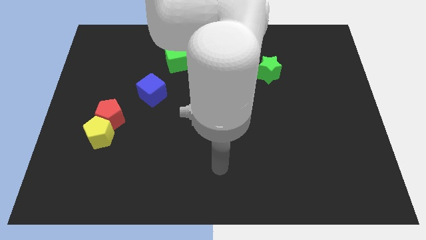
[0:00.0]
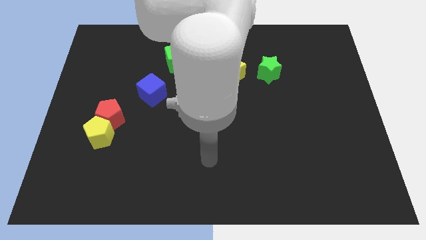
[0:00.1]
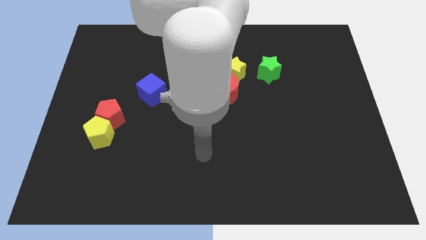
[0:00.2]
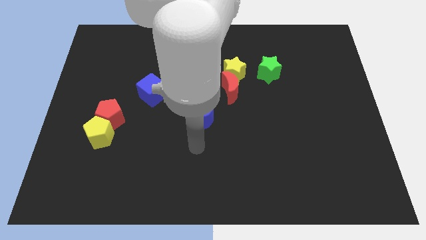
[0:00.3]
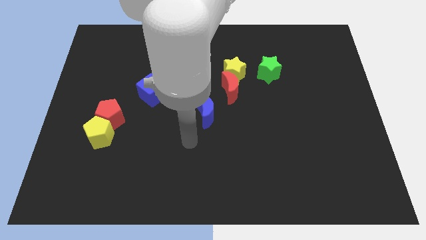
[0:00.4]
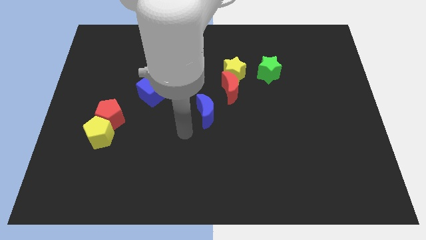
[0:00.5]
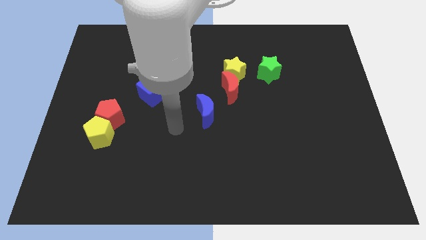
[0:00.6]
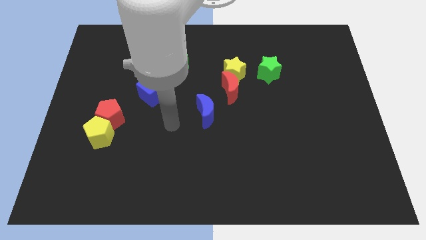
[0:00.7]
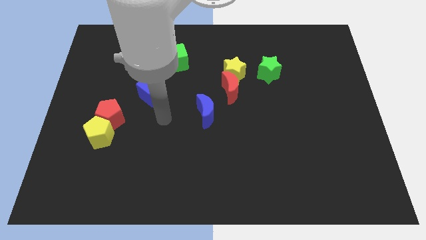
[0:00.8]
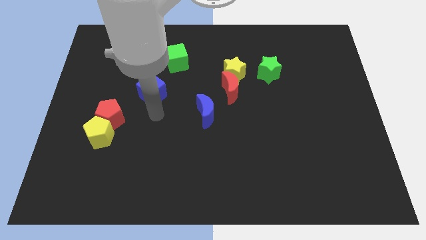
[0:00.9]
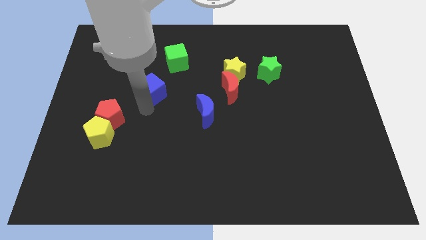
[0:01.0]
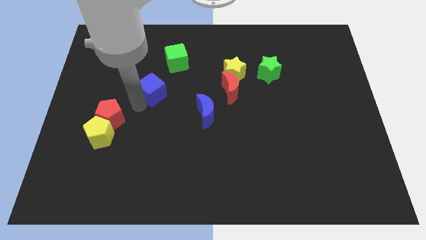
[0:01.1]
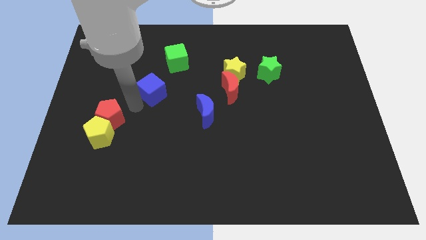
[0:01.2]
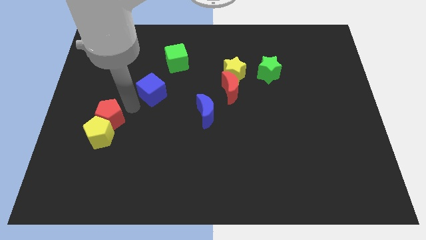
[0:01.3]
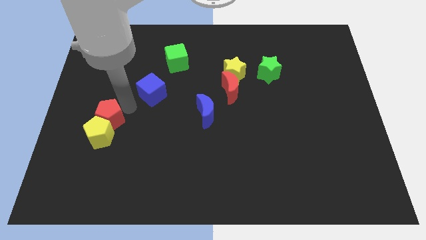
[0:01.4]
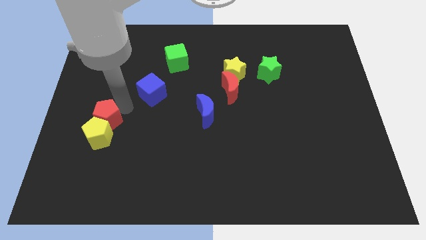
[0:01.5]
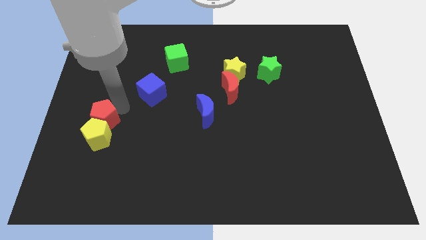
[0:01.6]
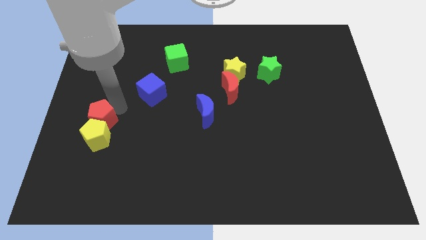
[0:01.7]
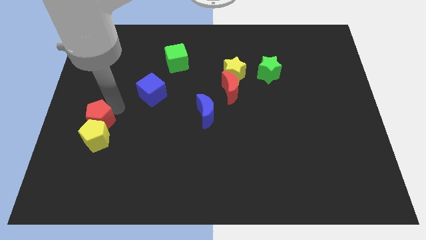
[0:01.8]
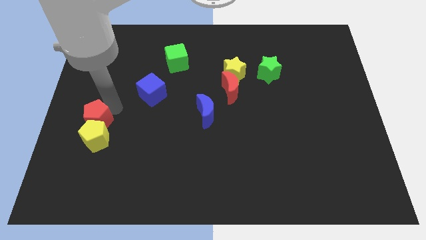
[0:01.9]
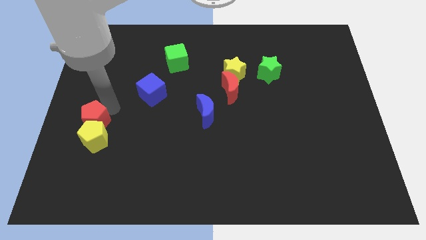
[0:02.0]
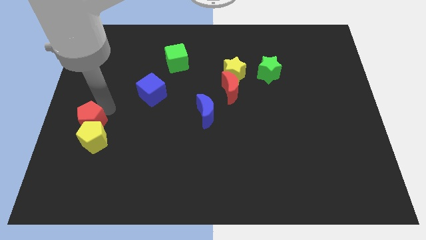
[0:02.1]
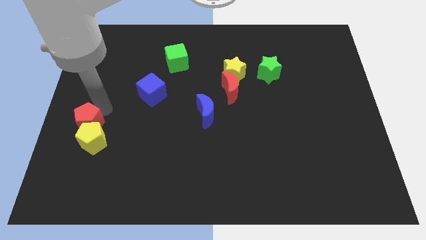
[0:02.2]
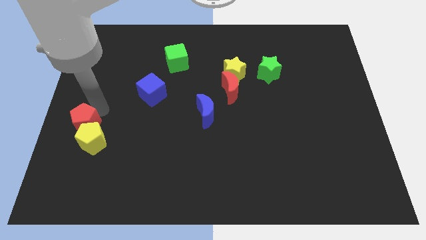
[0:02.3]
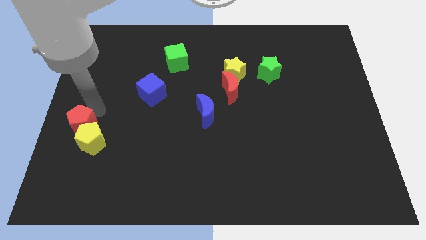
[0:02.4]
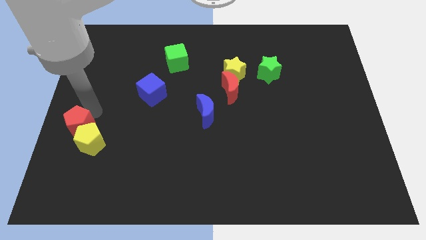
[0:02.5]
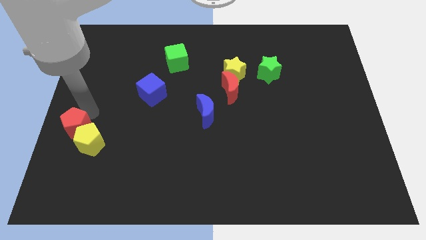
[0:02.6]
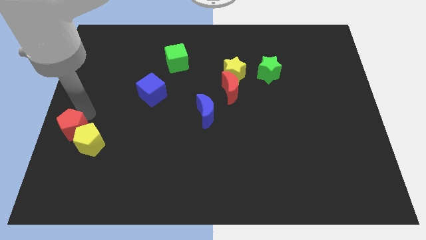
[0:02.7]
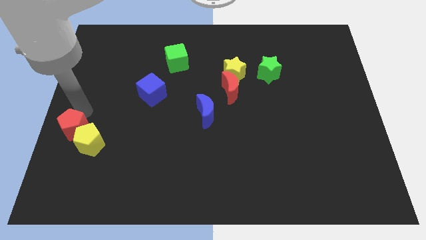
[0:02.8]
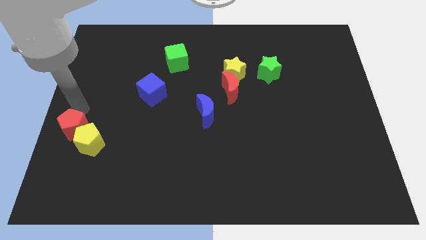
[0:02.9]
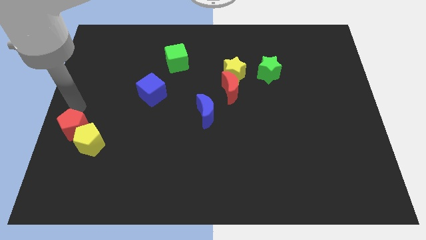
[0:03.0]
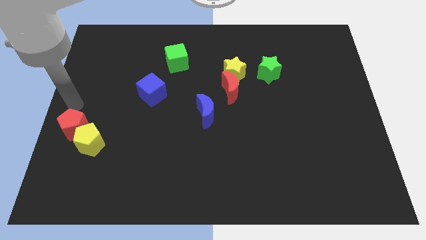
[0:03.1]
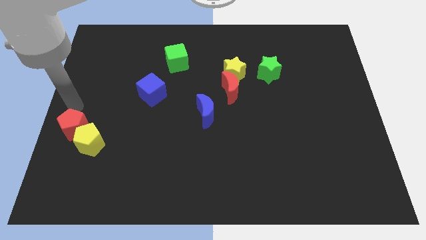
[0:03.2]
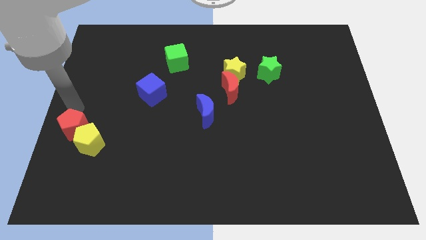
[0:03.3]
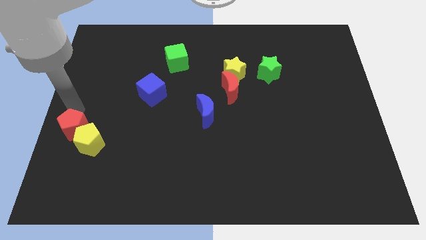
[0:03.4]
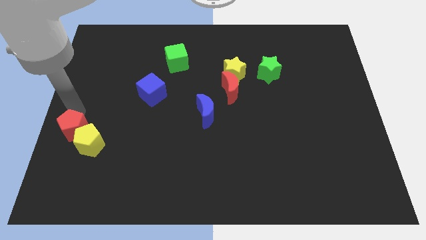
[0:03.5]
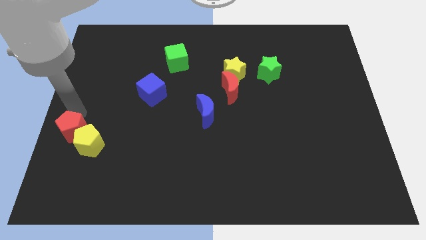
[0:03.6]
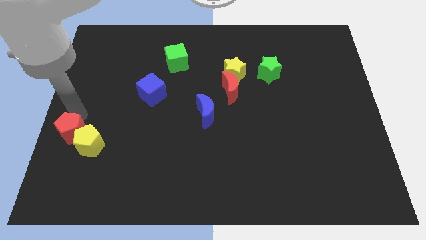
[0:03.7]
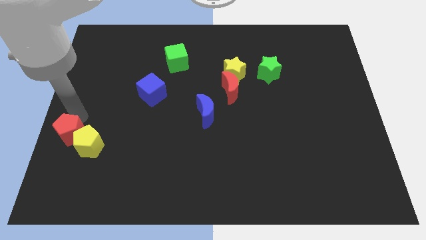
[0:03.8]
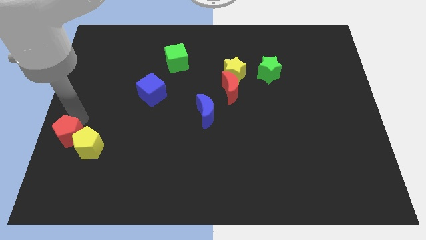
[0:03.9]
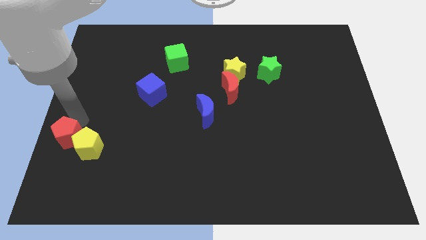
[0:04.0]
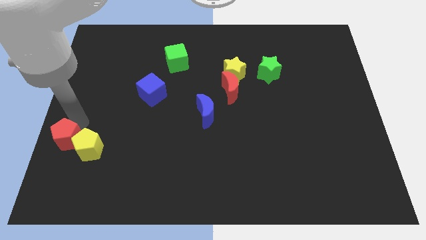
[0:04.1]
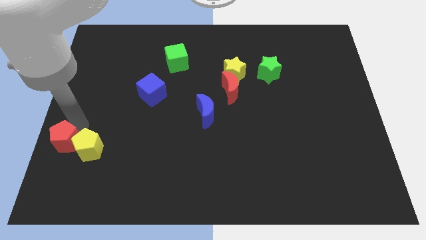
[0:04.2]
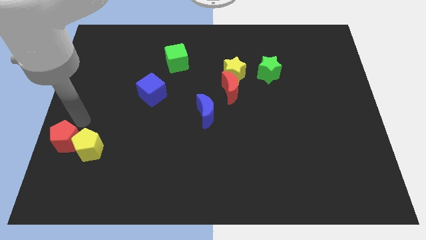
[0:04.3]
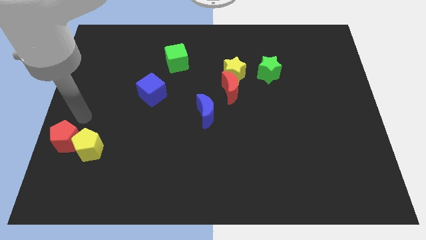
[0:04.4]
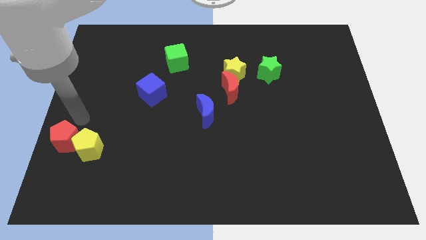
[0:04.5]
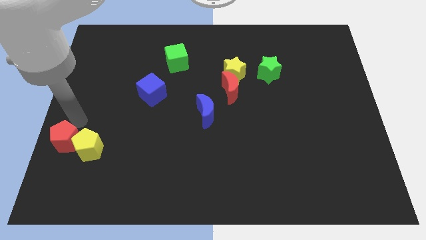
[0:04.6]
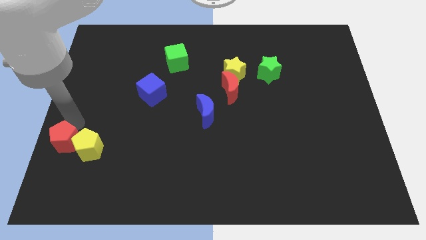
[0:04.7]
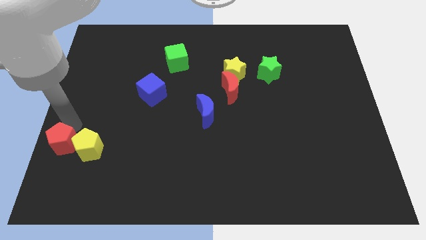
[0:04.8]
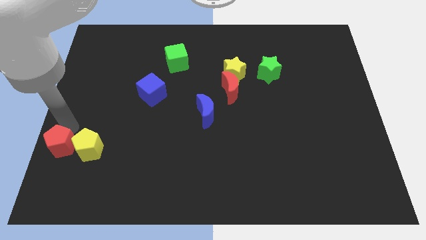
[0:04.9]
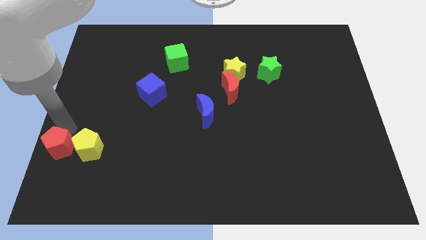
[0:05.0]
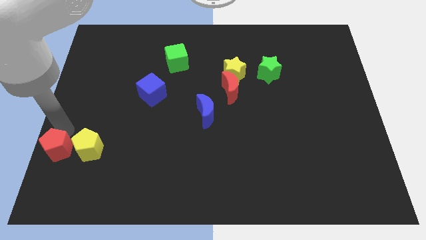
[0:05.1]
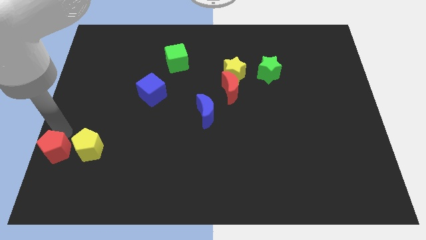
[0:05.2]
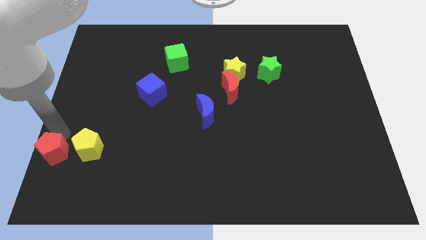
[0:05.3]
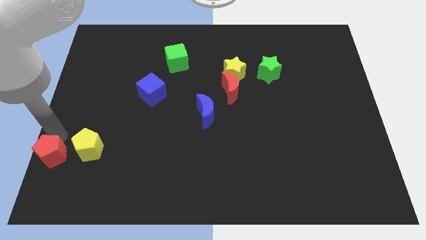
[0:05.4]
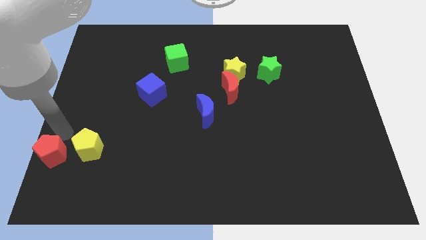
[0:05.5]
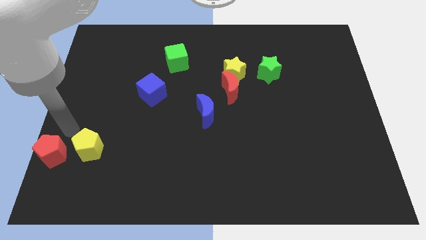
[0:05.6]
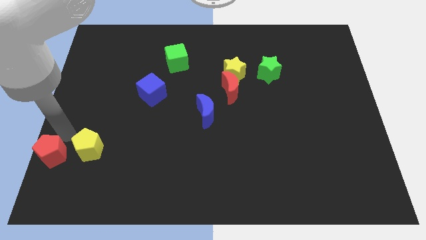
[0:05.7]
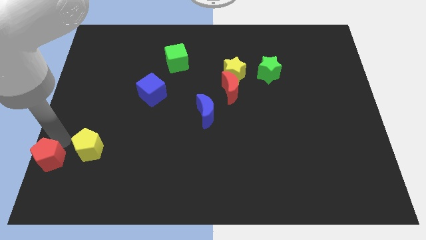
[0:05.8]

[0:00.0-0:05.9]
slide the red pentagon to the bottom left

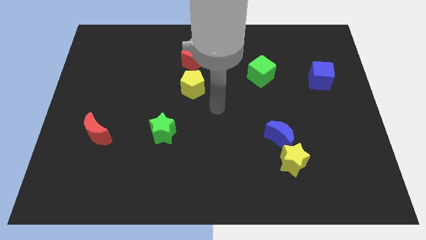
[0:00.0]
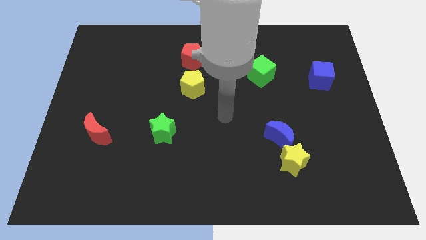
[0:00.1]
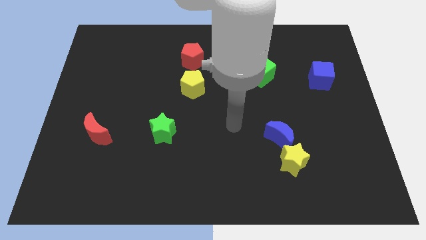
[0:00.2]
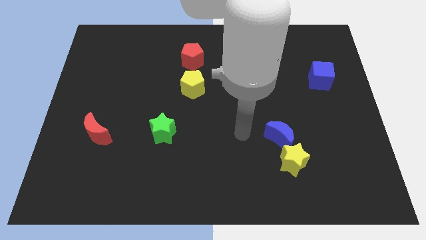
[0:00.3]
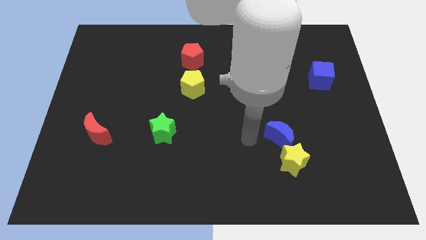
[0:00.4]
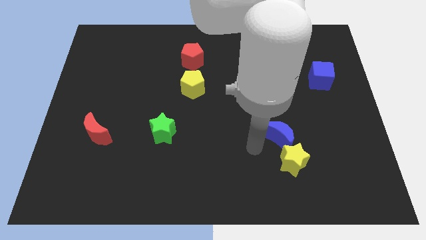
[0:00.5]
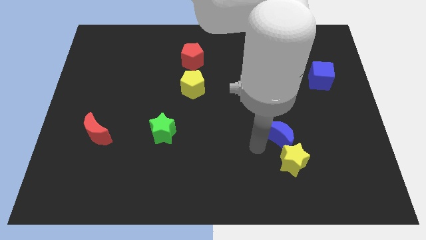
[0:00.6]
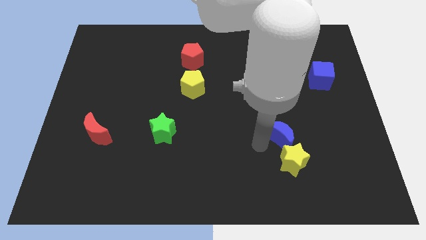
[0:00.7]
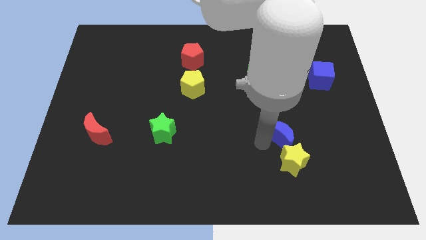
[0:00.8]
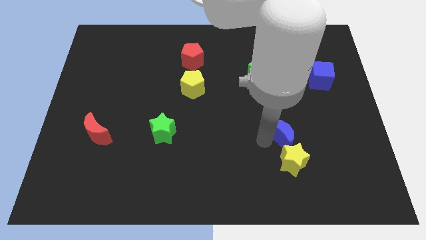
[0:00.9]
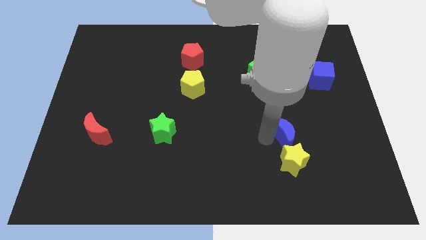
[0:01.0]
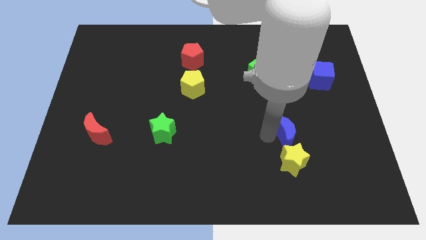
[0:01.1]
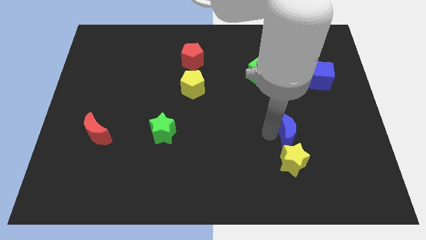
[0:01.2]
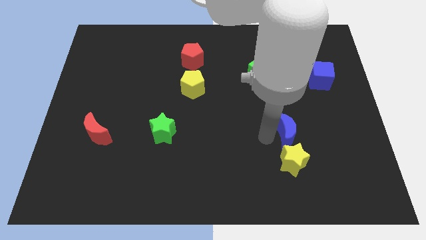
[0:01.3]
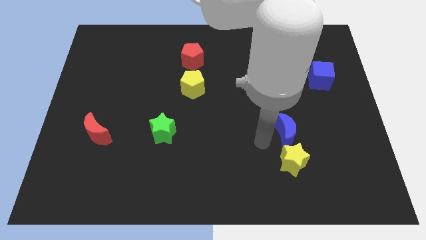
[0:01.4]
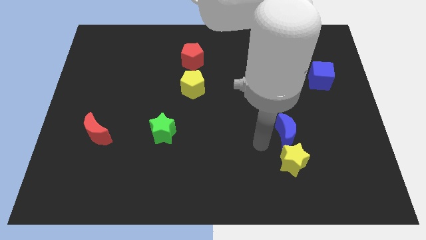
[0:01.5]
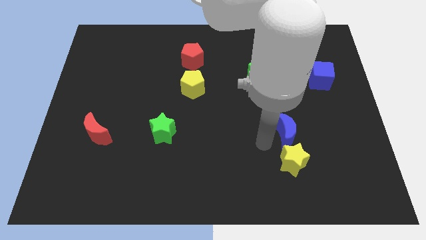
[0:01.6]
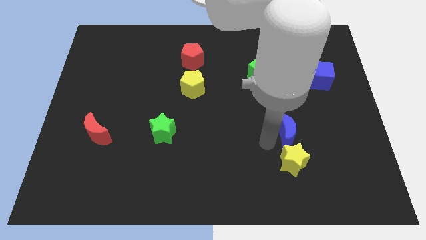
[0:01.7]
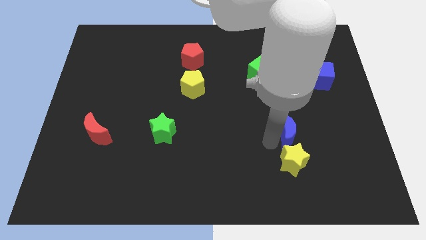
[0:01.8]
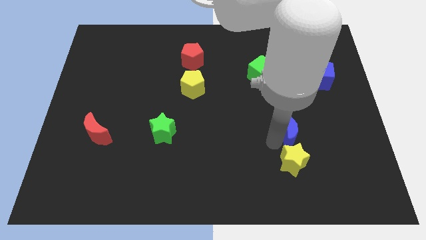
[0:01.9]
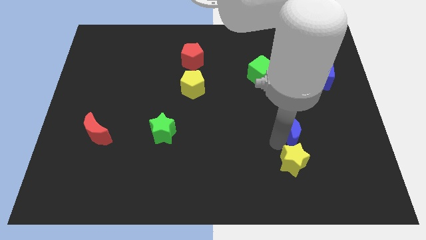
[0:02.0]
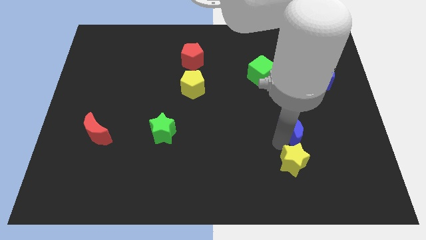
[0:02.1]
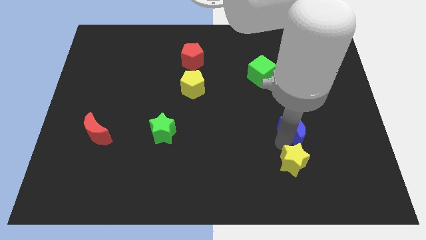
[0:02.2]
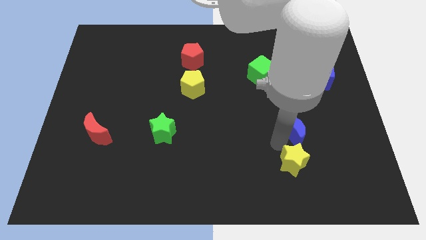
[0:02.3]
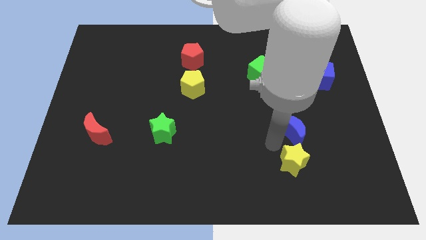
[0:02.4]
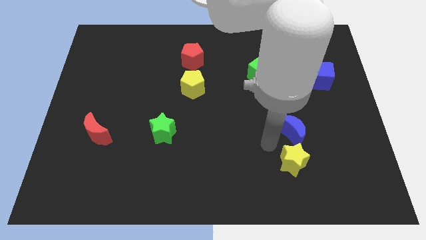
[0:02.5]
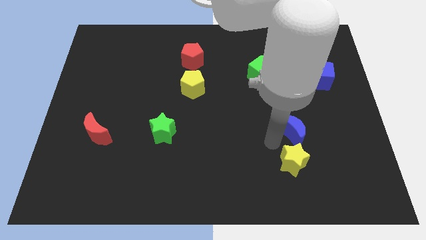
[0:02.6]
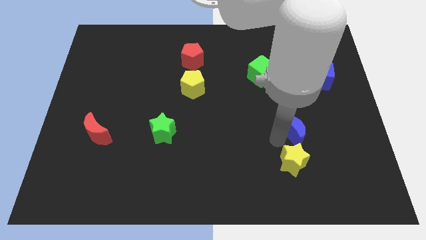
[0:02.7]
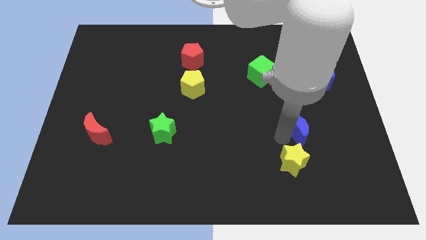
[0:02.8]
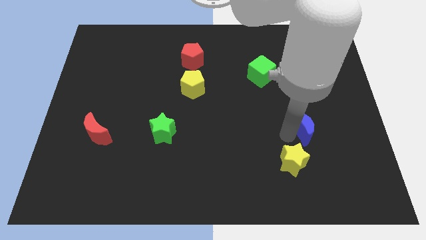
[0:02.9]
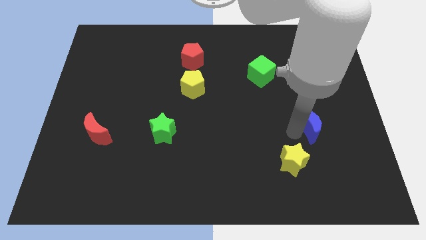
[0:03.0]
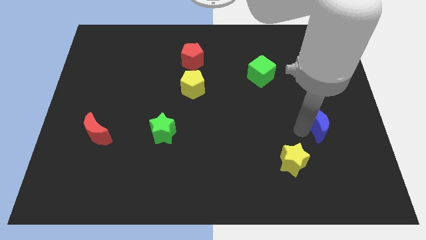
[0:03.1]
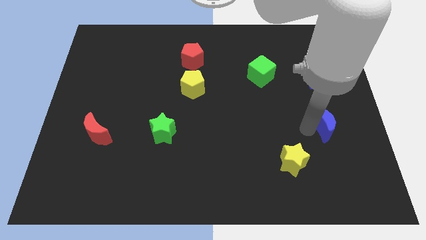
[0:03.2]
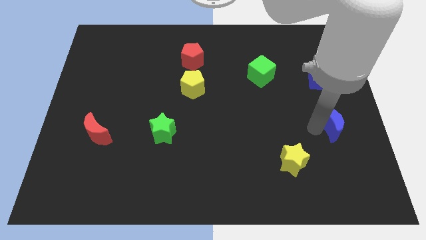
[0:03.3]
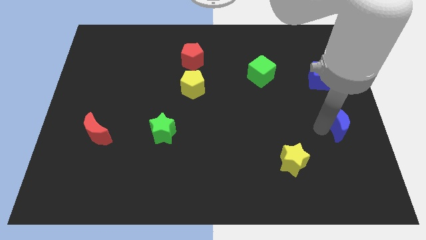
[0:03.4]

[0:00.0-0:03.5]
put the blue moon to the right side
